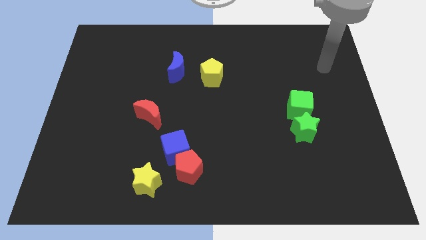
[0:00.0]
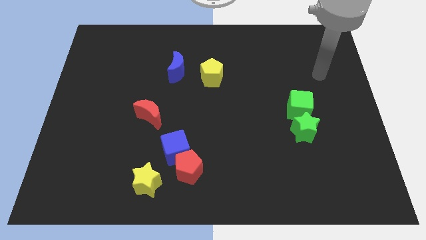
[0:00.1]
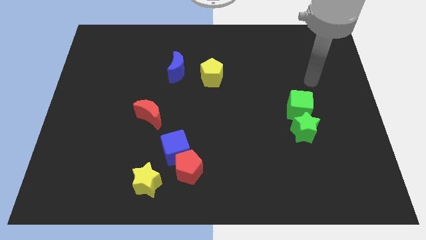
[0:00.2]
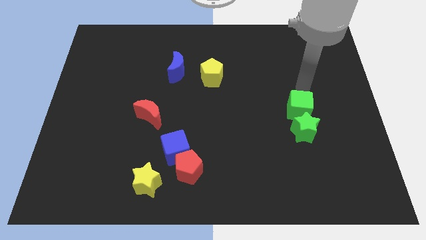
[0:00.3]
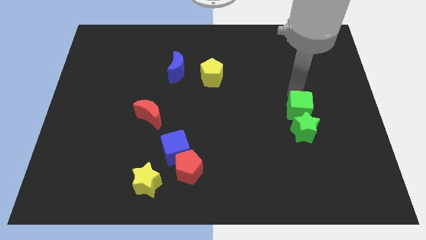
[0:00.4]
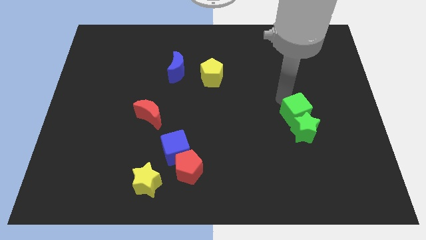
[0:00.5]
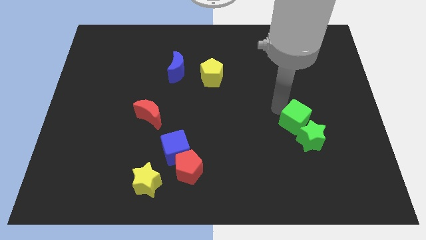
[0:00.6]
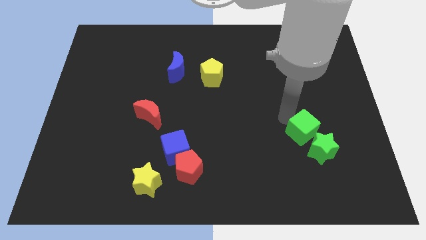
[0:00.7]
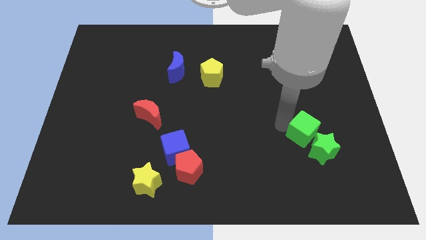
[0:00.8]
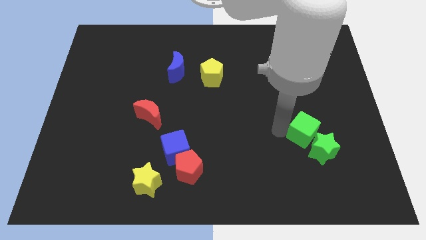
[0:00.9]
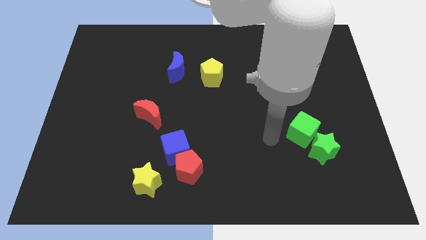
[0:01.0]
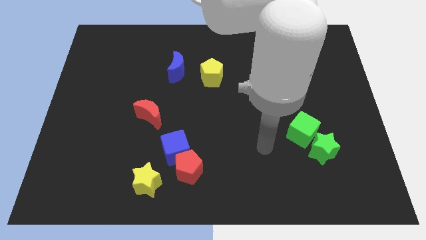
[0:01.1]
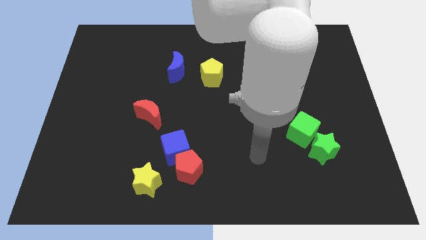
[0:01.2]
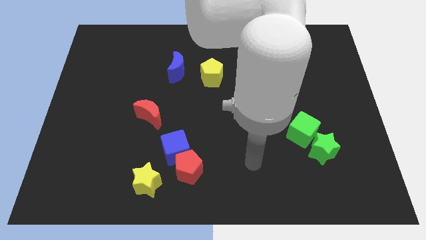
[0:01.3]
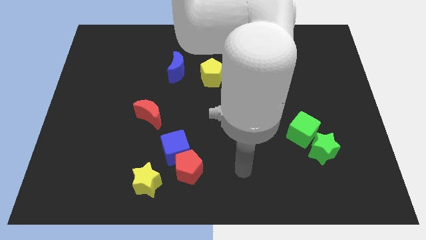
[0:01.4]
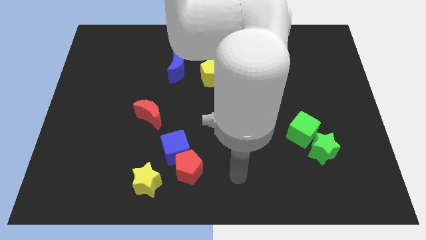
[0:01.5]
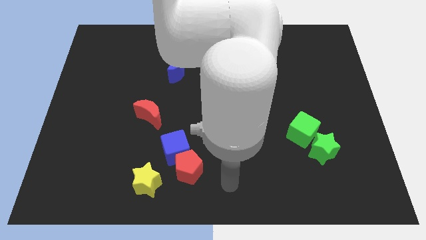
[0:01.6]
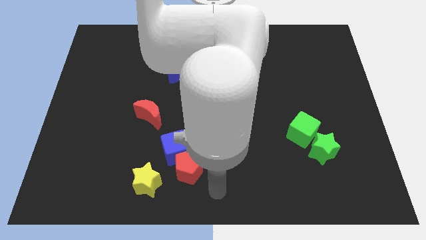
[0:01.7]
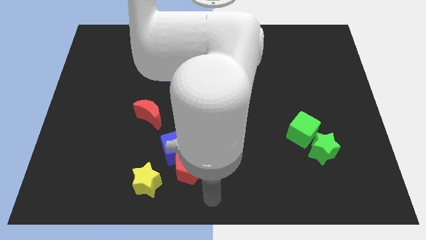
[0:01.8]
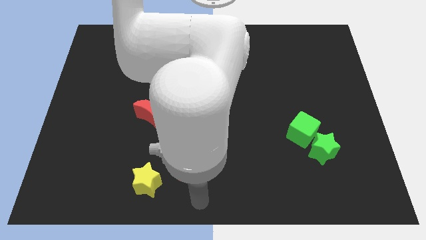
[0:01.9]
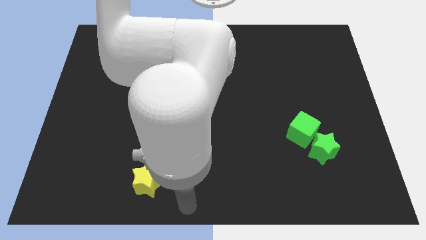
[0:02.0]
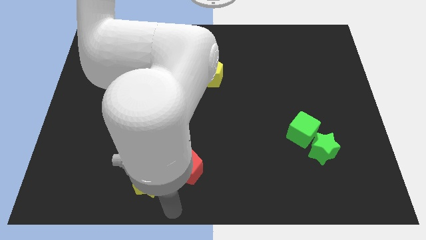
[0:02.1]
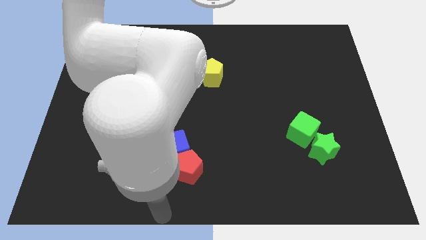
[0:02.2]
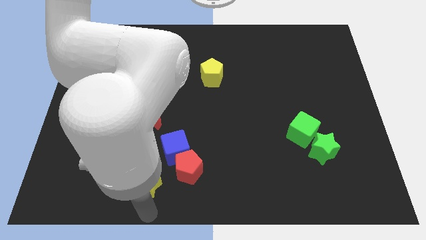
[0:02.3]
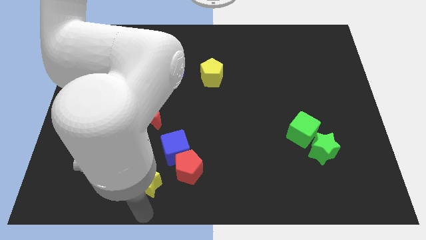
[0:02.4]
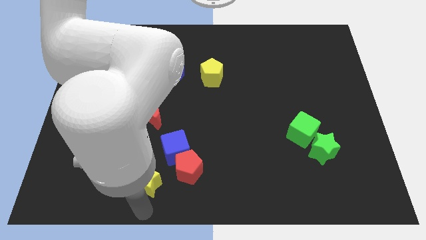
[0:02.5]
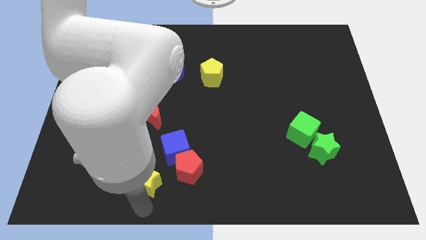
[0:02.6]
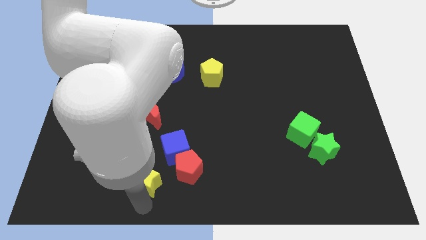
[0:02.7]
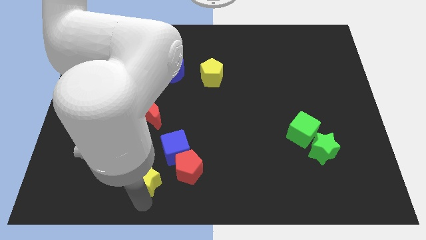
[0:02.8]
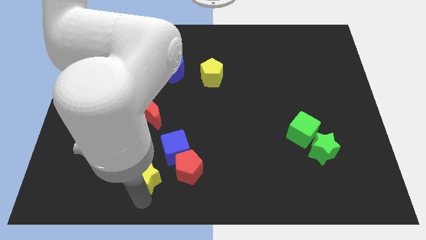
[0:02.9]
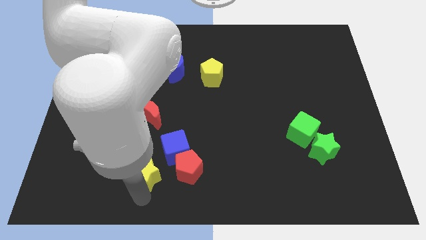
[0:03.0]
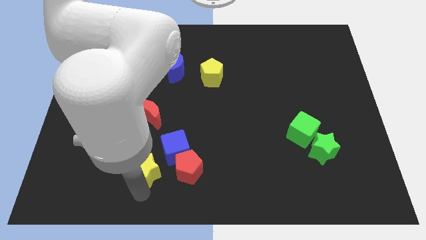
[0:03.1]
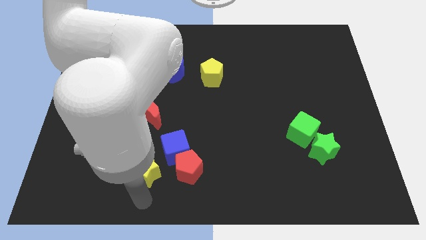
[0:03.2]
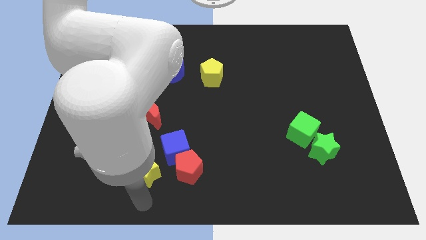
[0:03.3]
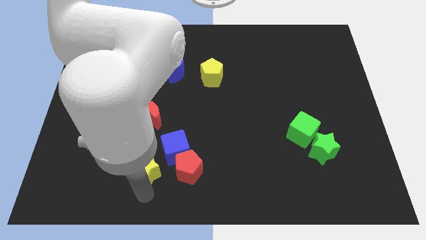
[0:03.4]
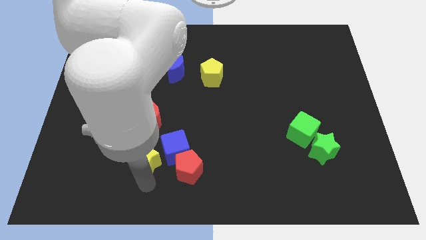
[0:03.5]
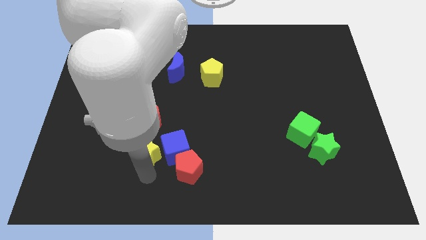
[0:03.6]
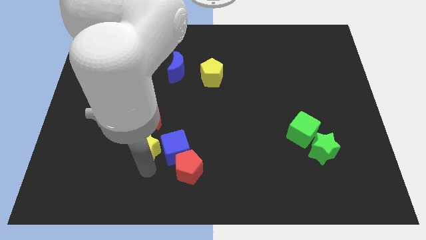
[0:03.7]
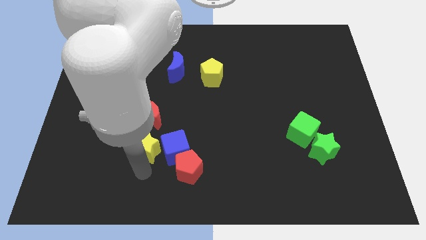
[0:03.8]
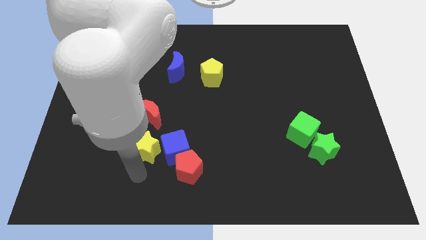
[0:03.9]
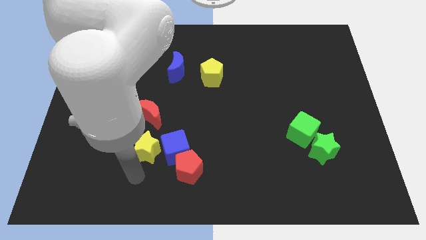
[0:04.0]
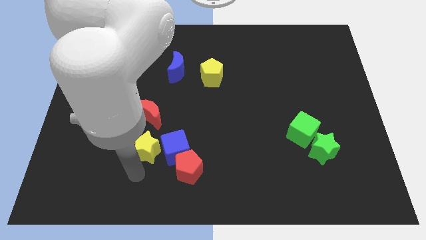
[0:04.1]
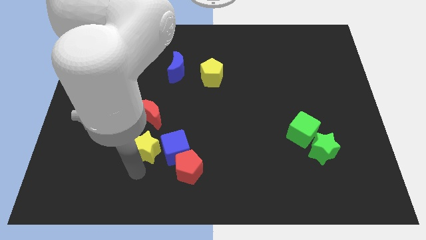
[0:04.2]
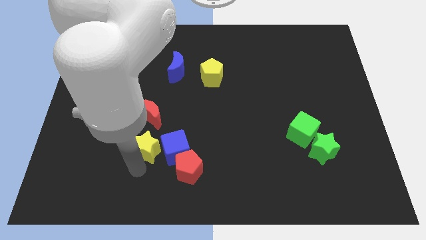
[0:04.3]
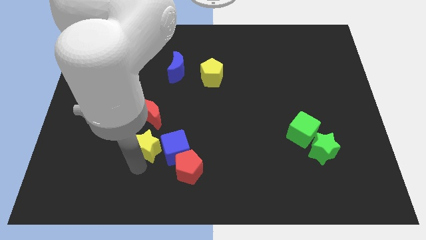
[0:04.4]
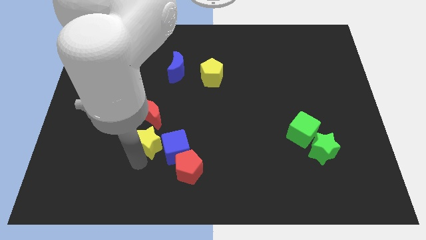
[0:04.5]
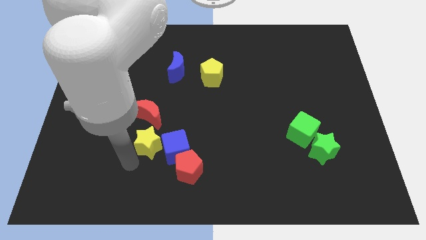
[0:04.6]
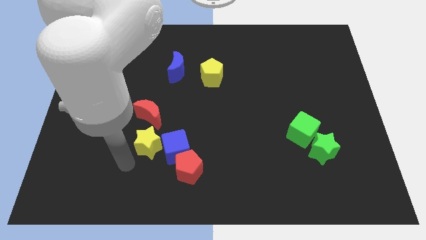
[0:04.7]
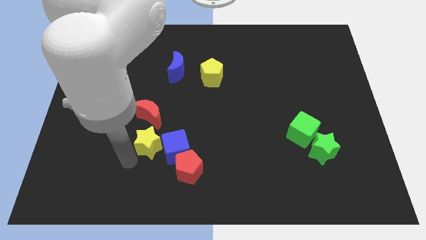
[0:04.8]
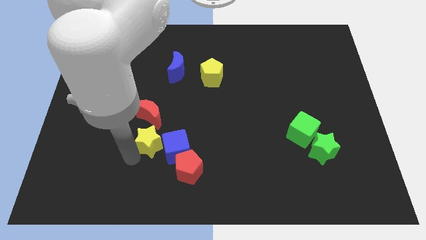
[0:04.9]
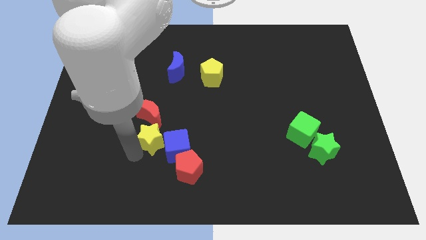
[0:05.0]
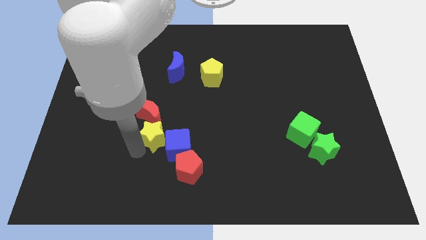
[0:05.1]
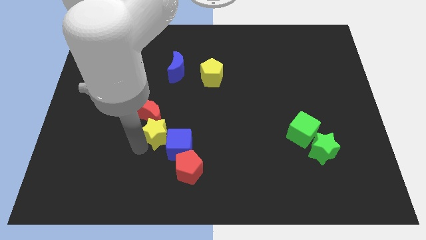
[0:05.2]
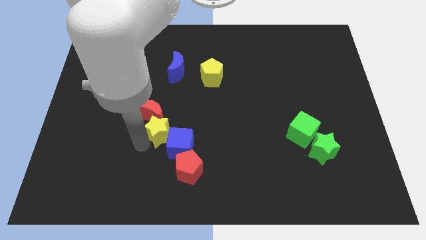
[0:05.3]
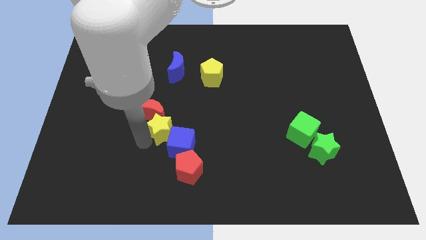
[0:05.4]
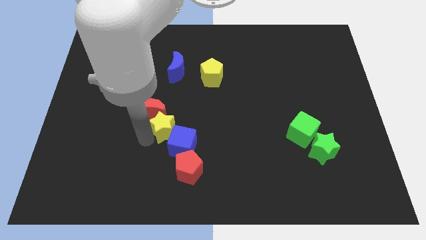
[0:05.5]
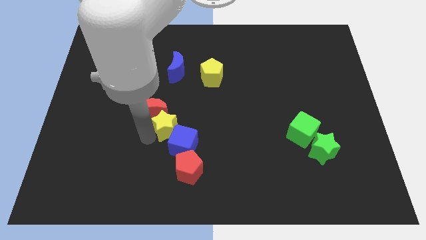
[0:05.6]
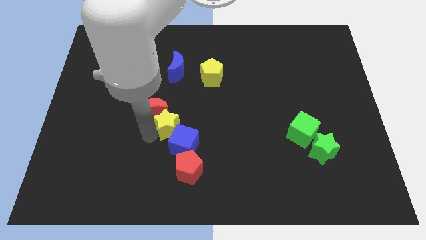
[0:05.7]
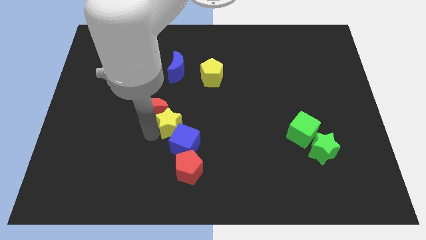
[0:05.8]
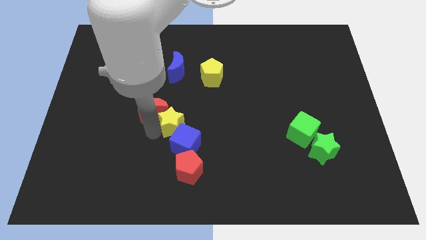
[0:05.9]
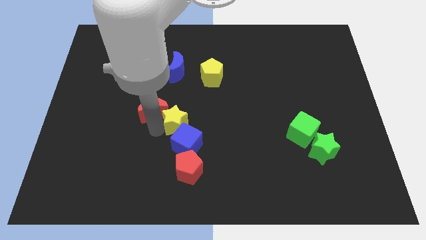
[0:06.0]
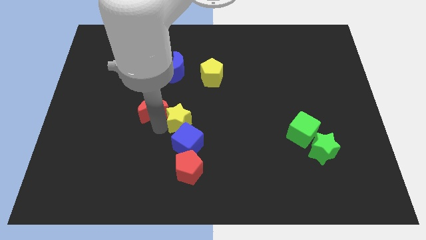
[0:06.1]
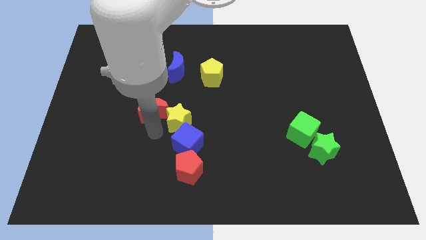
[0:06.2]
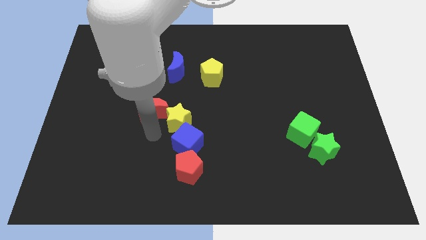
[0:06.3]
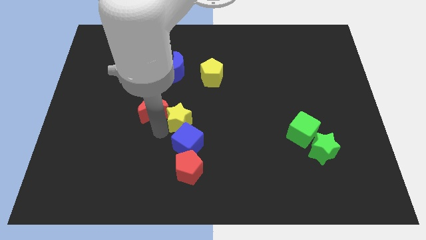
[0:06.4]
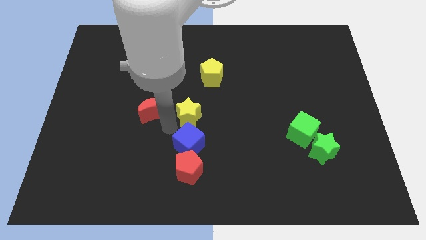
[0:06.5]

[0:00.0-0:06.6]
put the yellow star to the bottom of the yellow pentagon

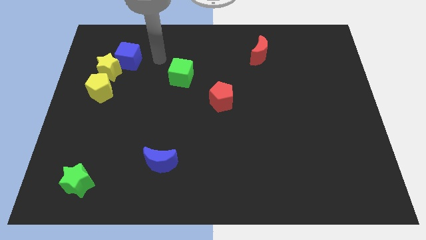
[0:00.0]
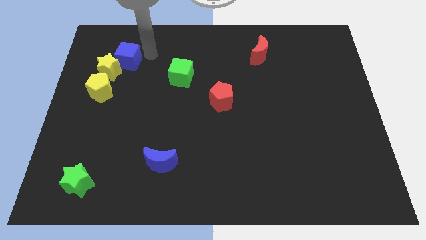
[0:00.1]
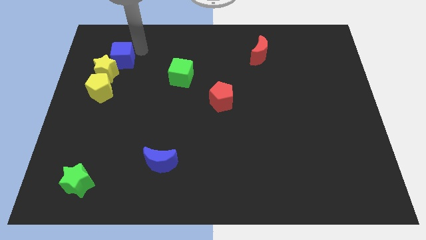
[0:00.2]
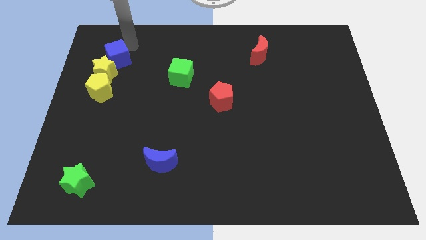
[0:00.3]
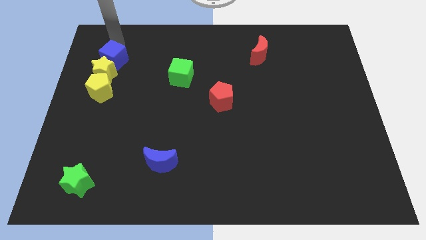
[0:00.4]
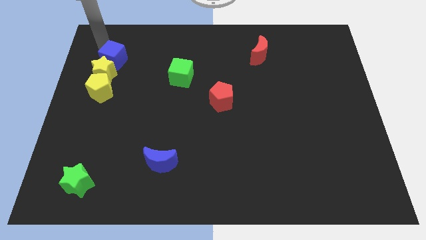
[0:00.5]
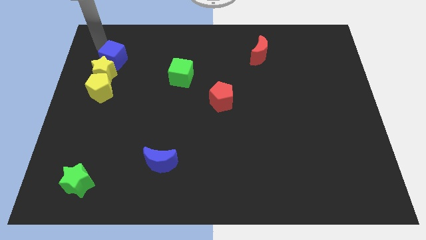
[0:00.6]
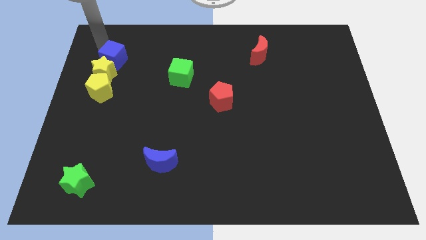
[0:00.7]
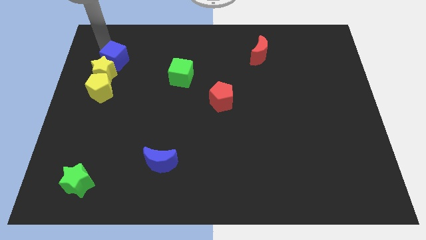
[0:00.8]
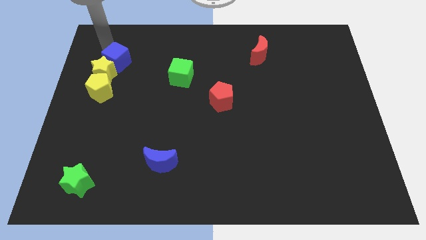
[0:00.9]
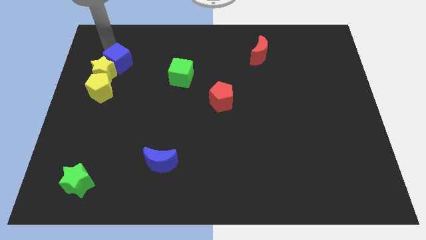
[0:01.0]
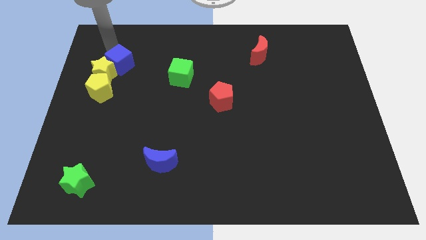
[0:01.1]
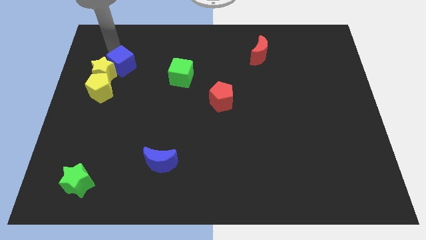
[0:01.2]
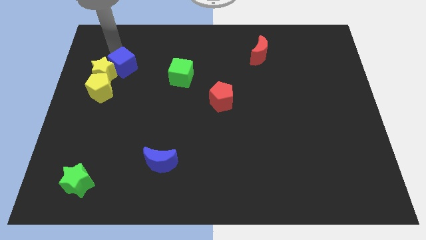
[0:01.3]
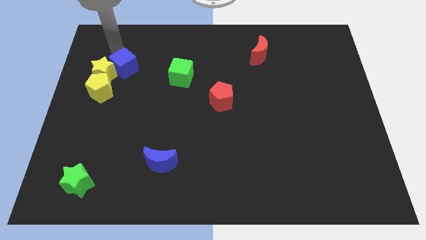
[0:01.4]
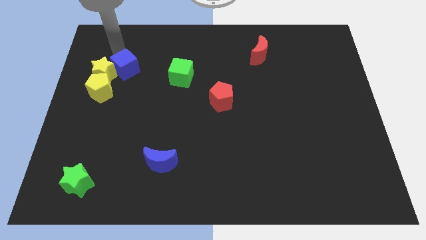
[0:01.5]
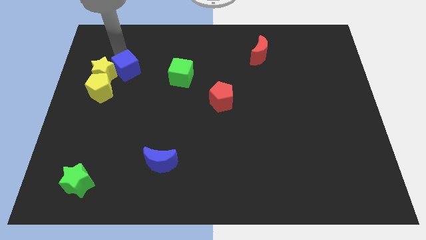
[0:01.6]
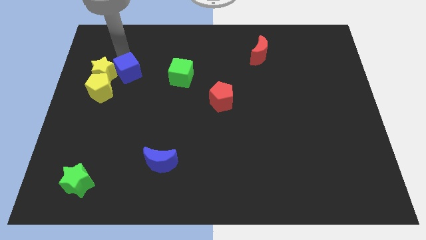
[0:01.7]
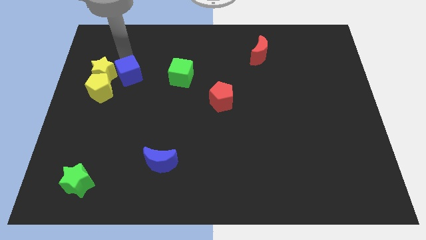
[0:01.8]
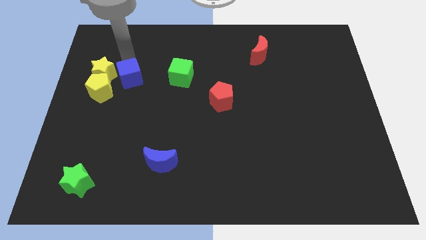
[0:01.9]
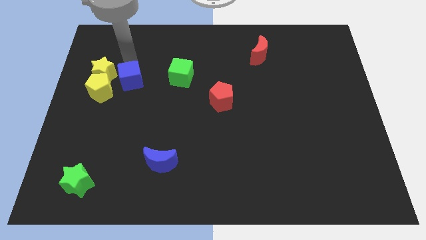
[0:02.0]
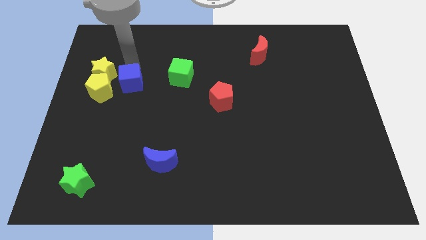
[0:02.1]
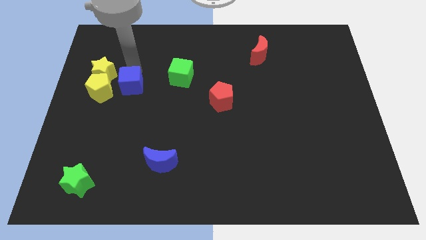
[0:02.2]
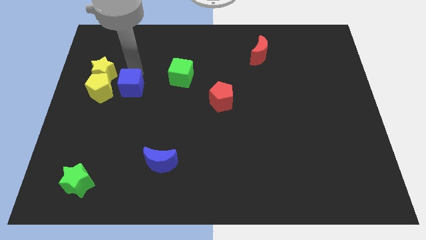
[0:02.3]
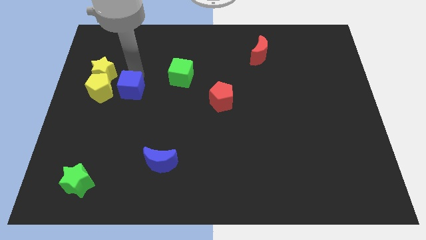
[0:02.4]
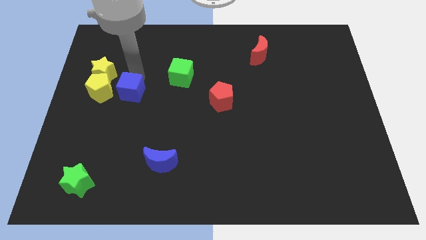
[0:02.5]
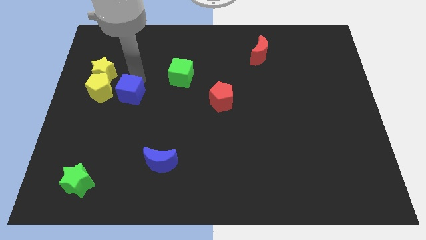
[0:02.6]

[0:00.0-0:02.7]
put the blue cube diagonally down and to the right of the yellow pentagon
